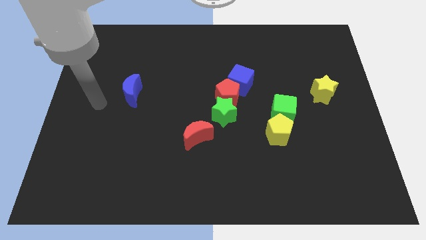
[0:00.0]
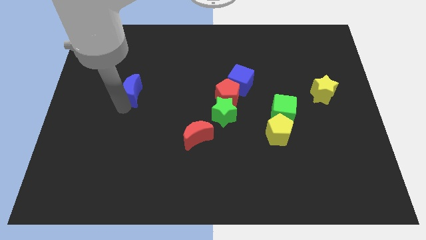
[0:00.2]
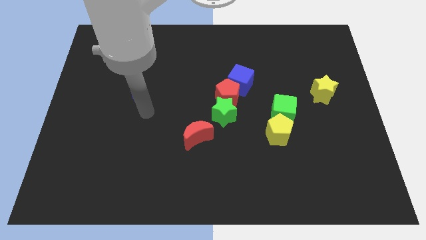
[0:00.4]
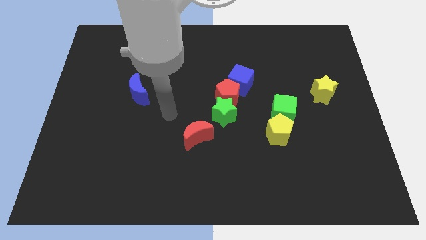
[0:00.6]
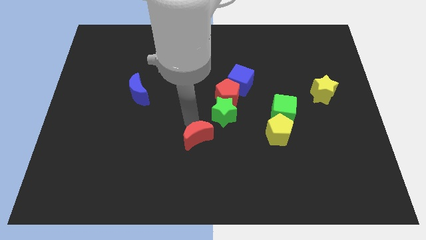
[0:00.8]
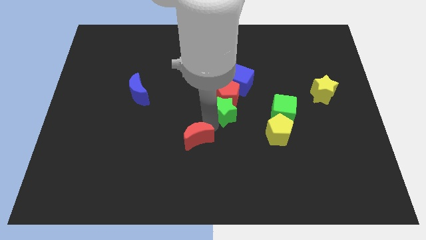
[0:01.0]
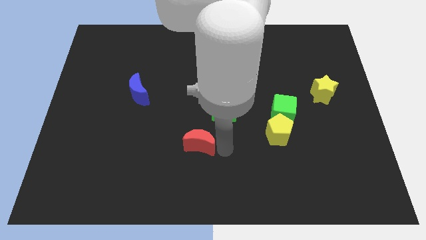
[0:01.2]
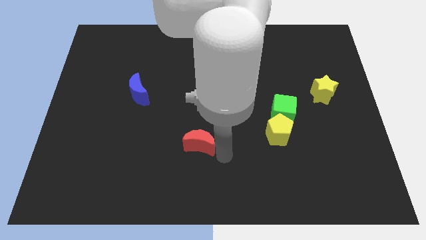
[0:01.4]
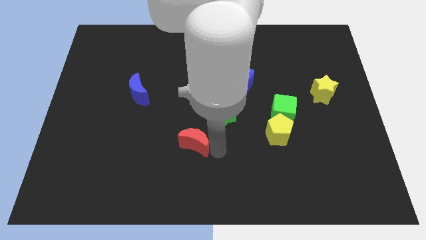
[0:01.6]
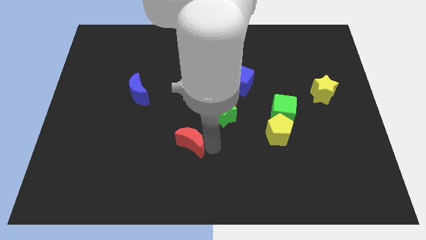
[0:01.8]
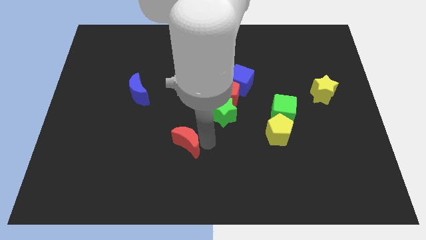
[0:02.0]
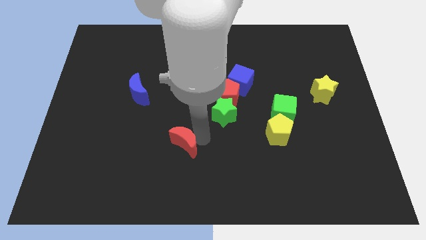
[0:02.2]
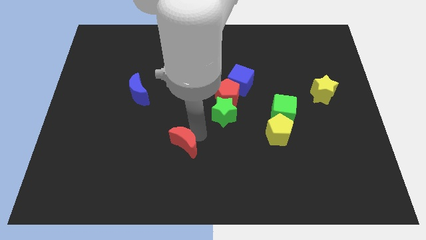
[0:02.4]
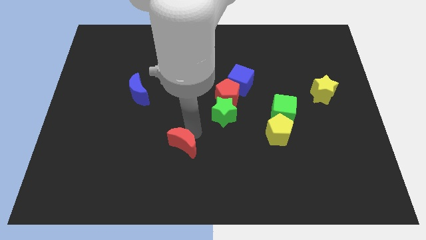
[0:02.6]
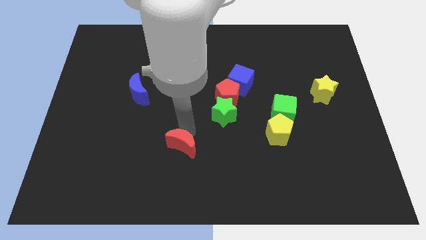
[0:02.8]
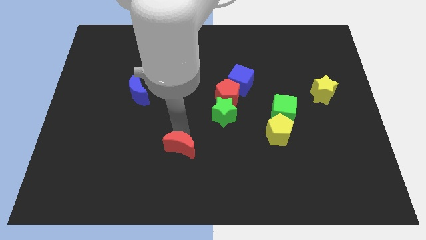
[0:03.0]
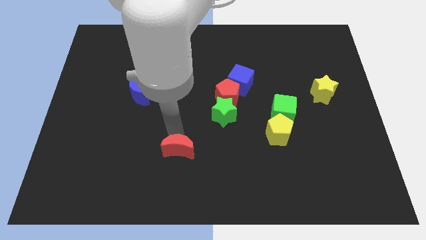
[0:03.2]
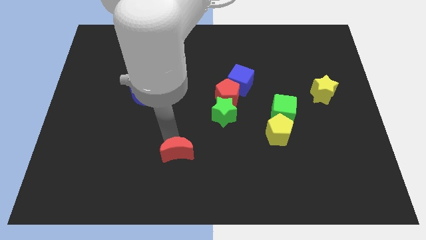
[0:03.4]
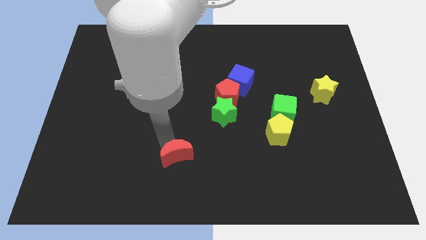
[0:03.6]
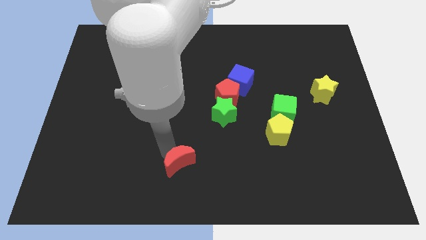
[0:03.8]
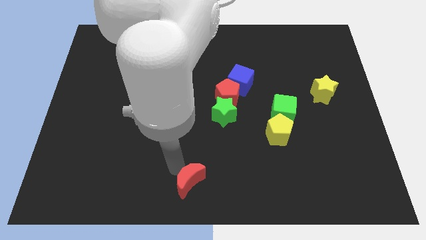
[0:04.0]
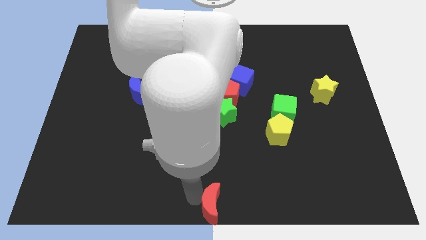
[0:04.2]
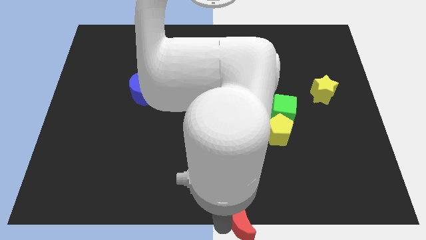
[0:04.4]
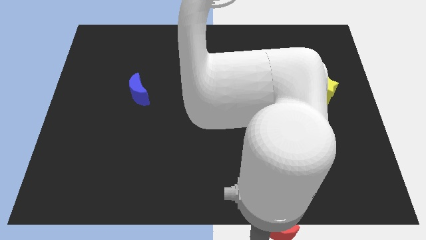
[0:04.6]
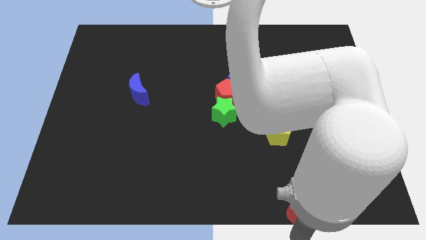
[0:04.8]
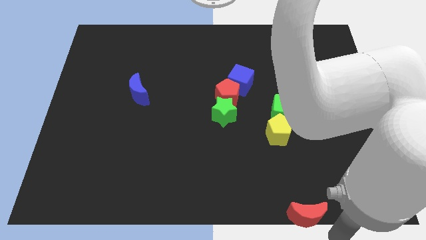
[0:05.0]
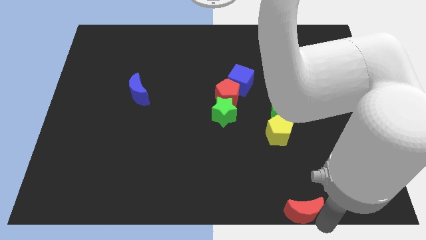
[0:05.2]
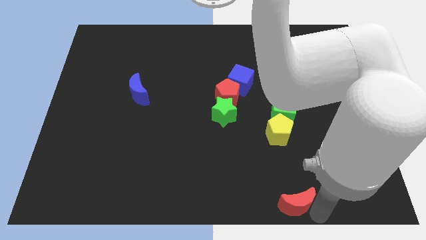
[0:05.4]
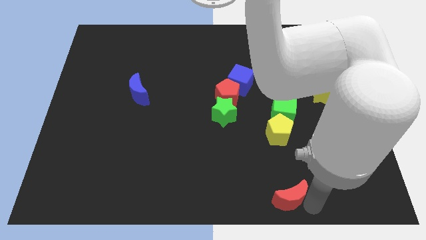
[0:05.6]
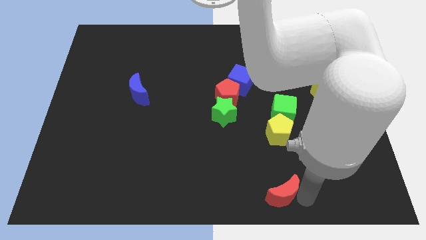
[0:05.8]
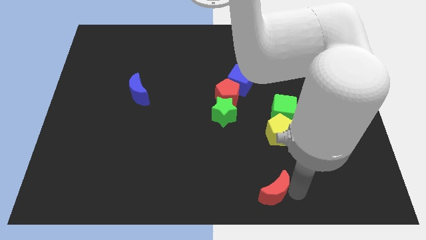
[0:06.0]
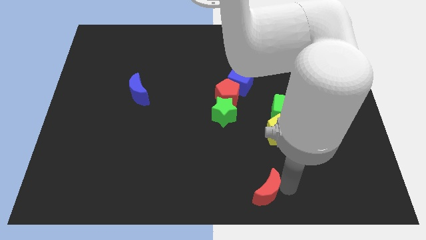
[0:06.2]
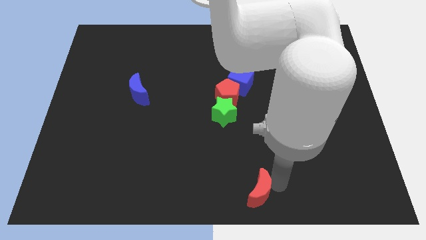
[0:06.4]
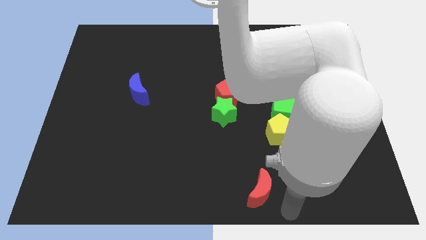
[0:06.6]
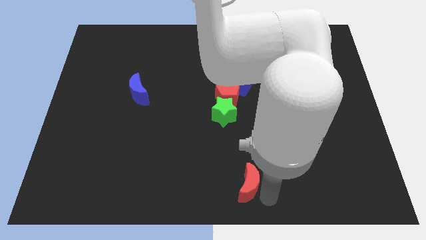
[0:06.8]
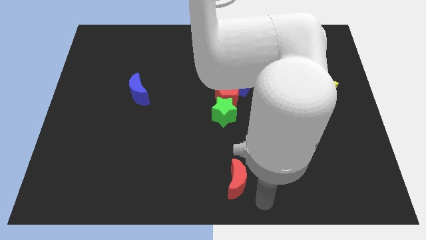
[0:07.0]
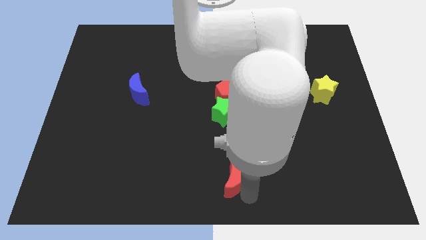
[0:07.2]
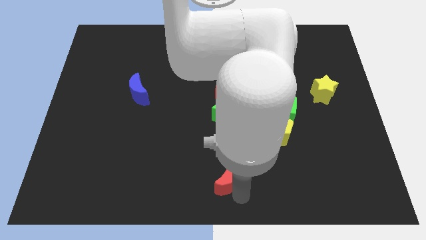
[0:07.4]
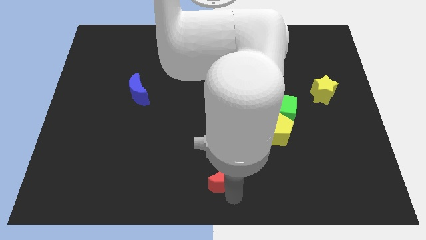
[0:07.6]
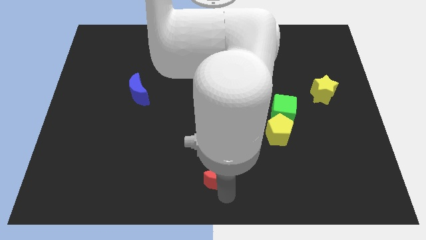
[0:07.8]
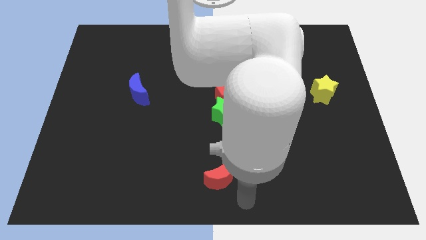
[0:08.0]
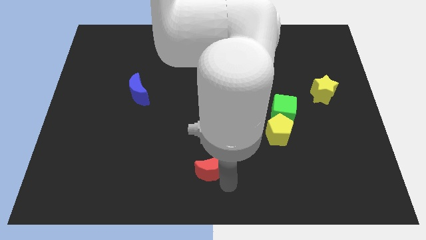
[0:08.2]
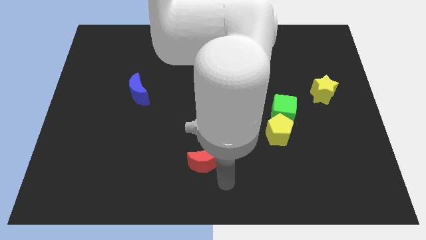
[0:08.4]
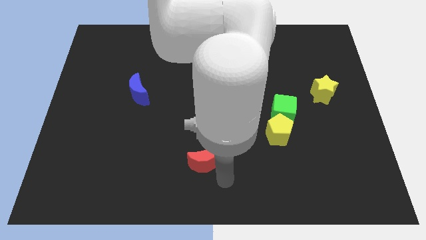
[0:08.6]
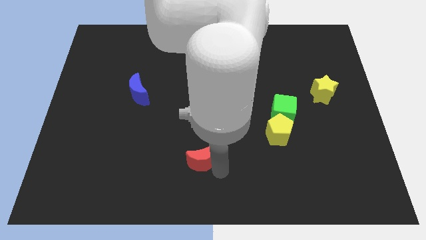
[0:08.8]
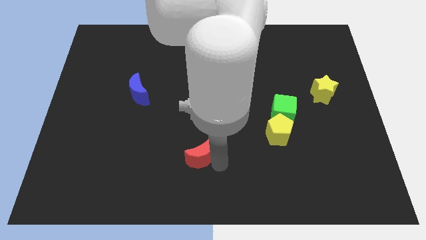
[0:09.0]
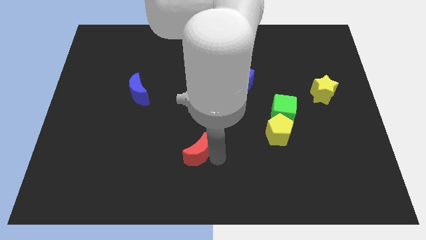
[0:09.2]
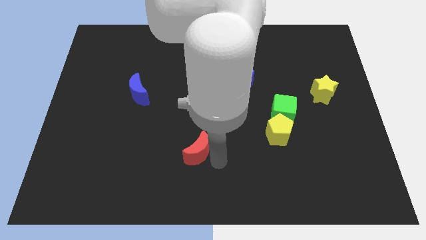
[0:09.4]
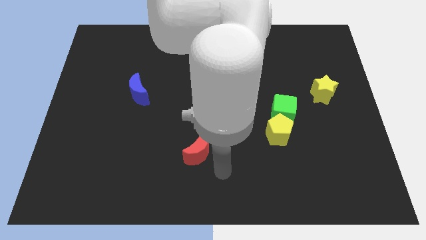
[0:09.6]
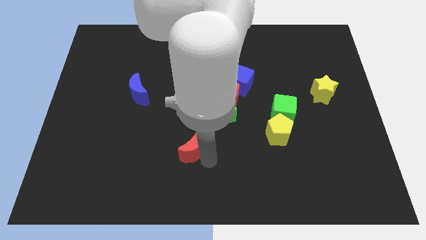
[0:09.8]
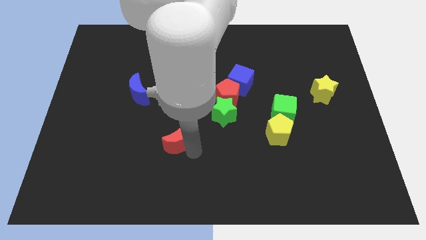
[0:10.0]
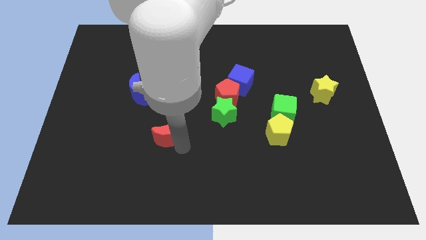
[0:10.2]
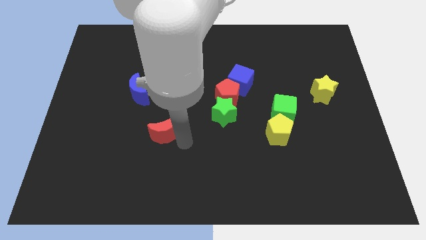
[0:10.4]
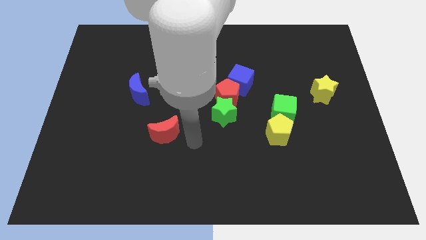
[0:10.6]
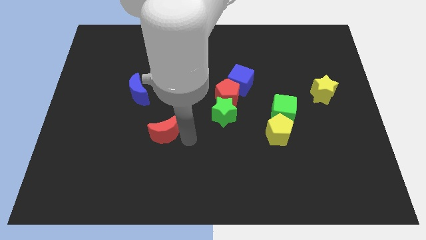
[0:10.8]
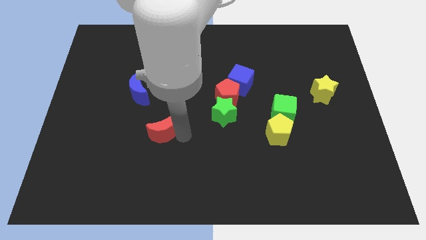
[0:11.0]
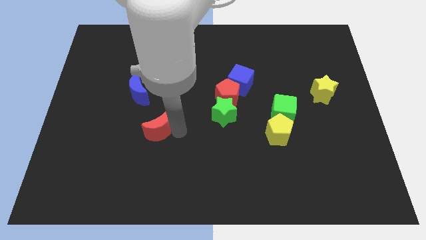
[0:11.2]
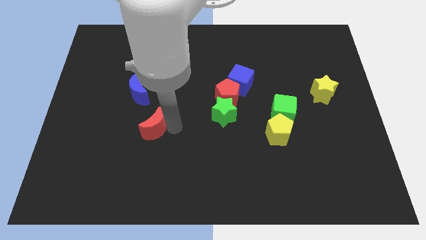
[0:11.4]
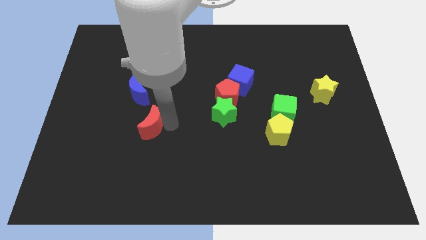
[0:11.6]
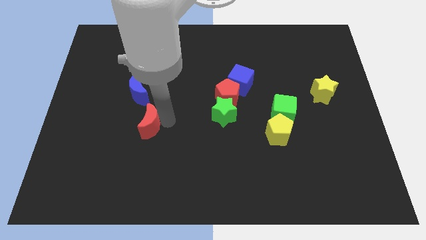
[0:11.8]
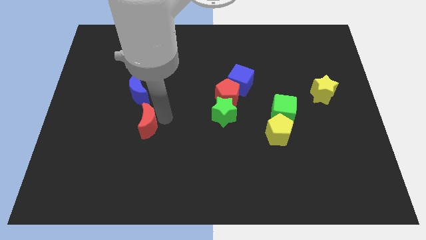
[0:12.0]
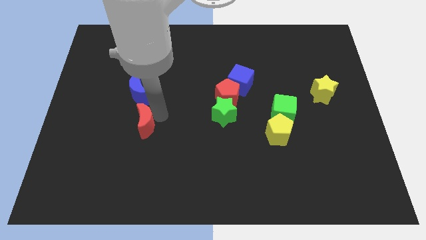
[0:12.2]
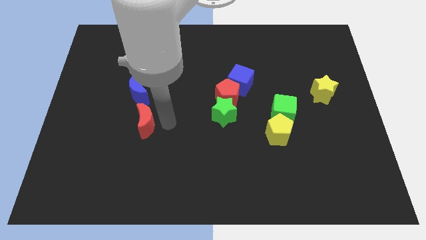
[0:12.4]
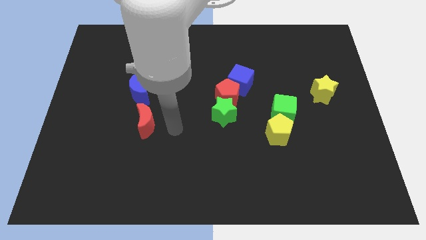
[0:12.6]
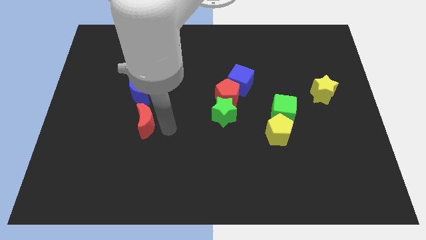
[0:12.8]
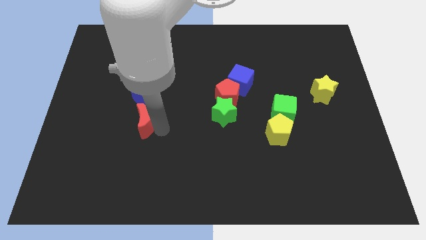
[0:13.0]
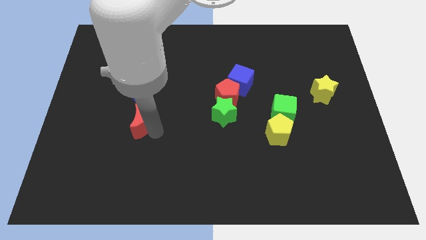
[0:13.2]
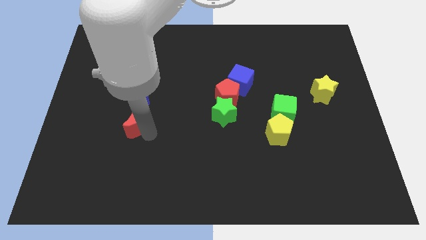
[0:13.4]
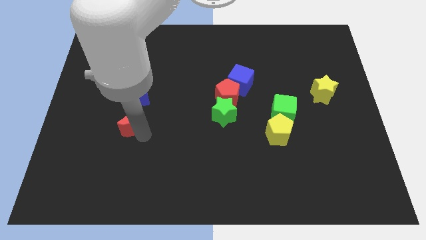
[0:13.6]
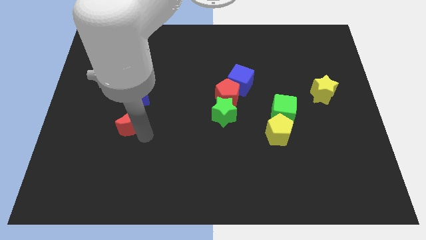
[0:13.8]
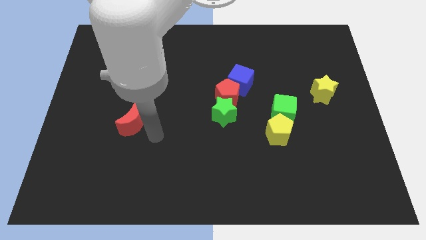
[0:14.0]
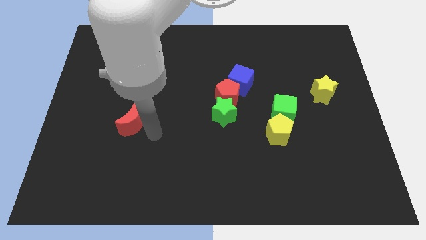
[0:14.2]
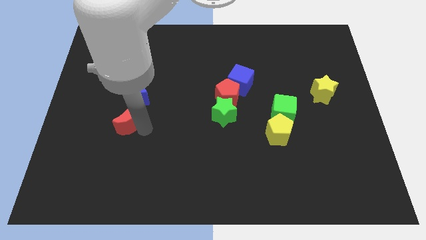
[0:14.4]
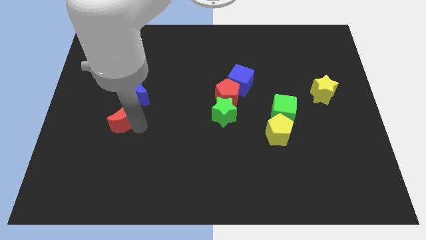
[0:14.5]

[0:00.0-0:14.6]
push the red moon diagonally down and to the left of the blue moon
